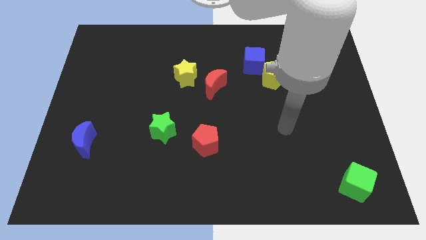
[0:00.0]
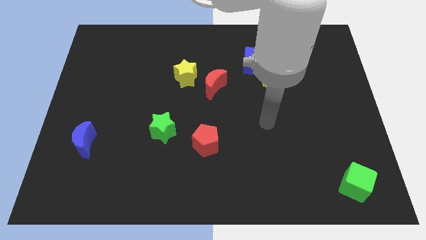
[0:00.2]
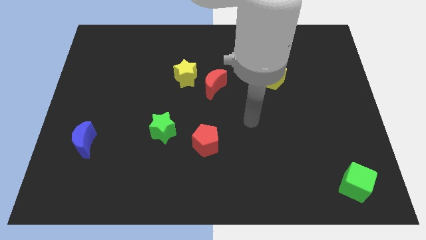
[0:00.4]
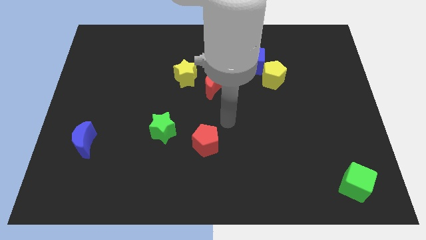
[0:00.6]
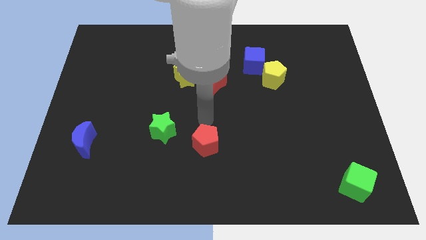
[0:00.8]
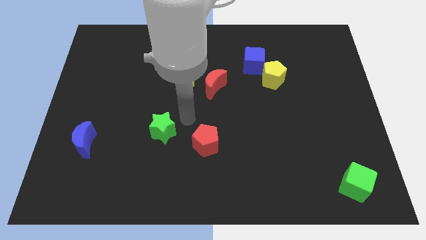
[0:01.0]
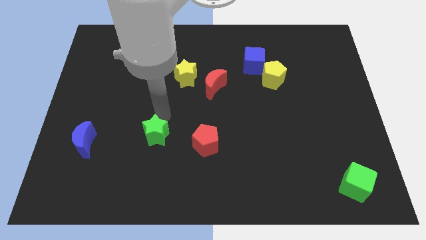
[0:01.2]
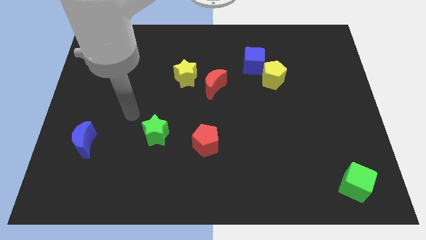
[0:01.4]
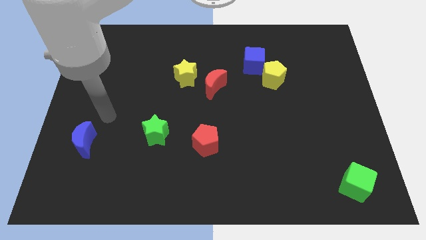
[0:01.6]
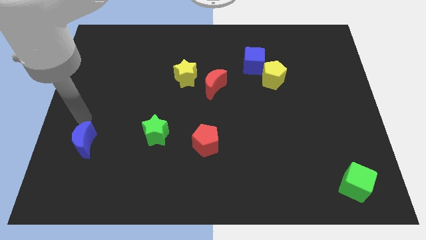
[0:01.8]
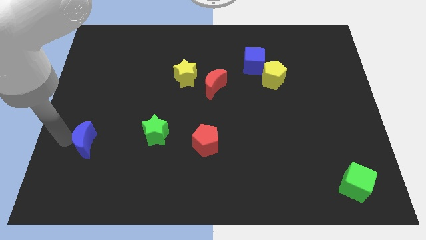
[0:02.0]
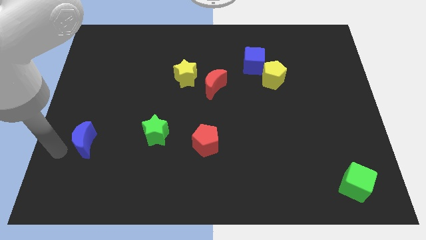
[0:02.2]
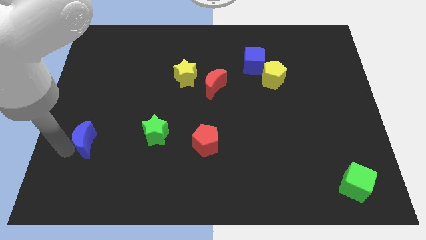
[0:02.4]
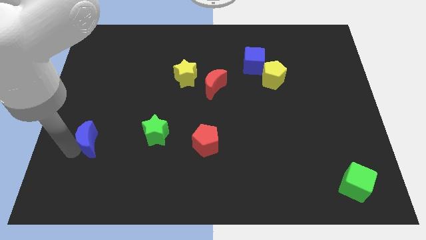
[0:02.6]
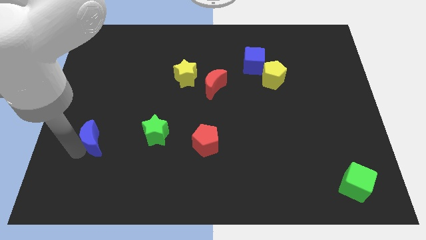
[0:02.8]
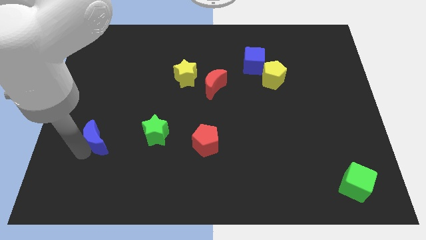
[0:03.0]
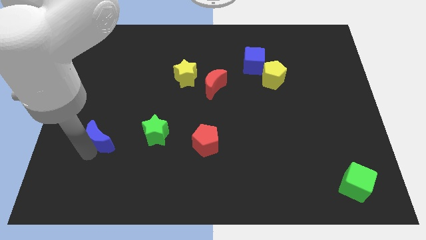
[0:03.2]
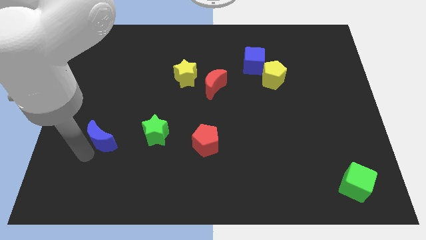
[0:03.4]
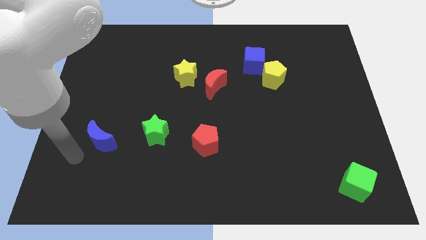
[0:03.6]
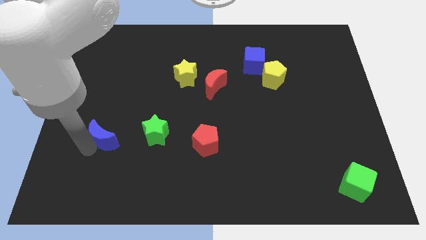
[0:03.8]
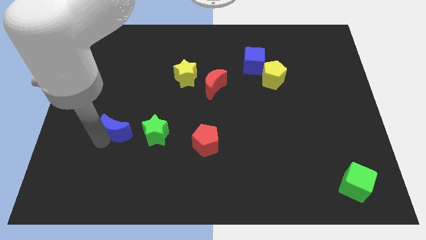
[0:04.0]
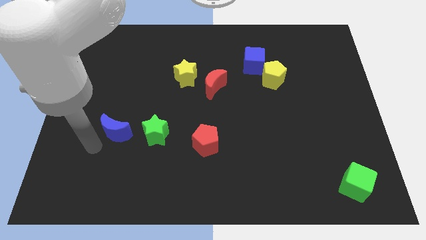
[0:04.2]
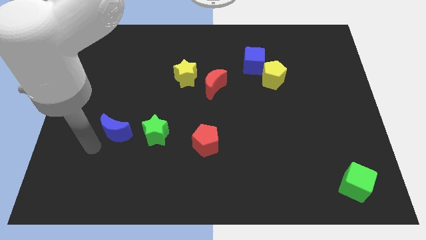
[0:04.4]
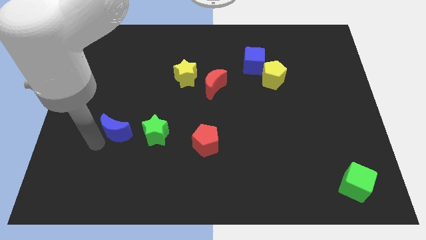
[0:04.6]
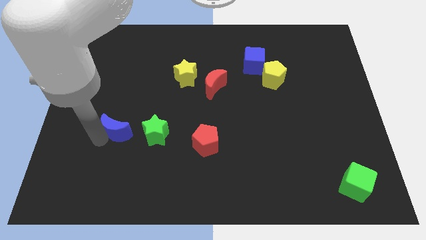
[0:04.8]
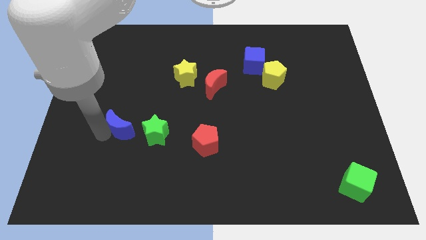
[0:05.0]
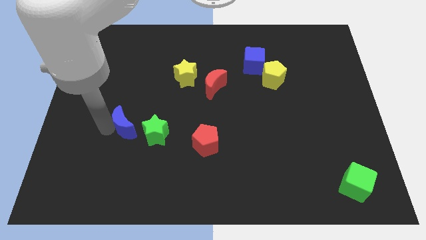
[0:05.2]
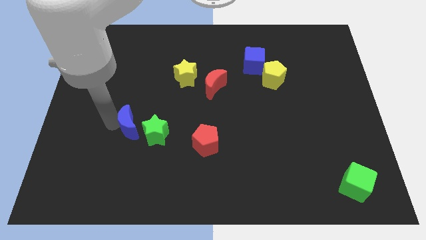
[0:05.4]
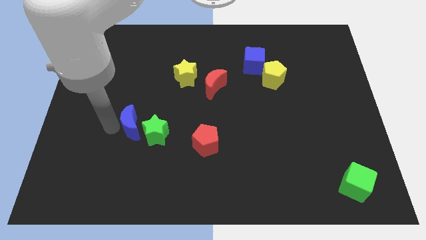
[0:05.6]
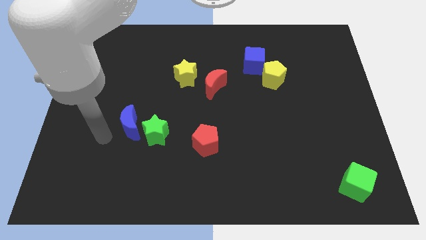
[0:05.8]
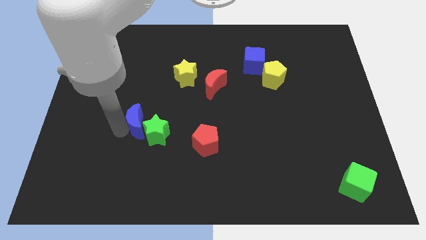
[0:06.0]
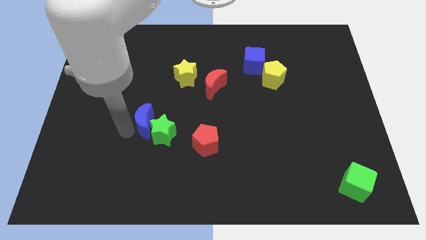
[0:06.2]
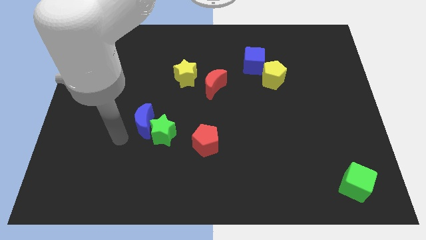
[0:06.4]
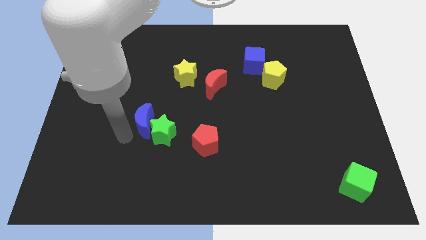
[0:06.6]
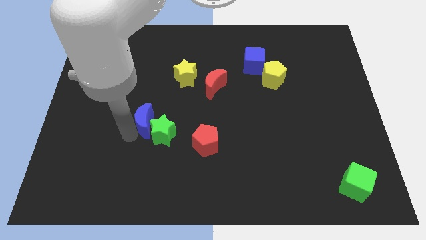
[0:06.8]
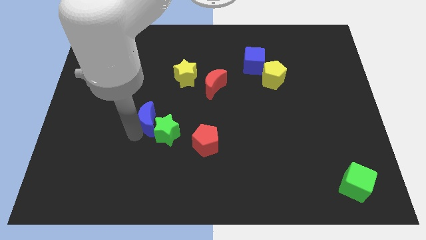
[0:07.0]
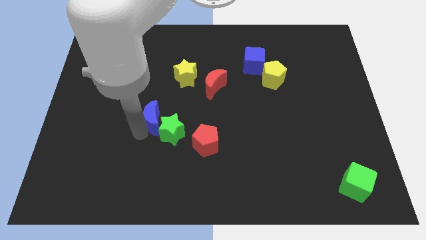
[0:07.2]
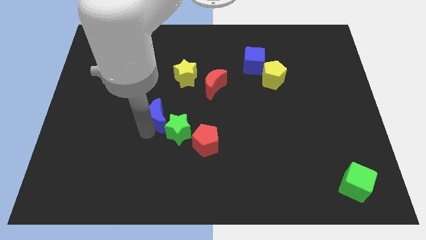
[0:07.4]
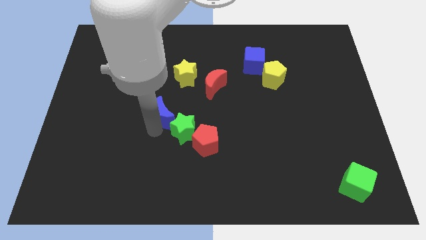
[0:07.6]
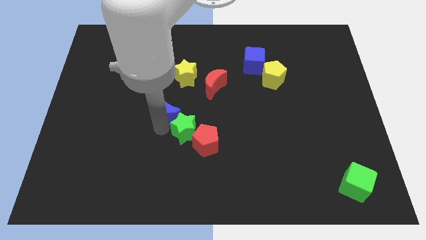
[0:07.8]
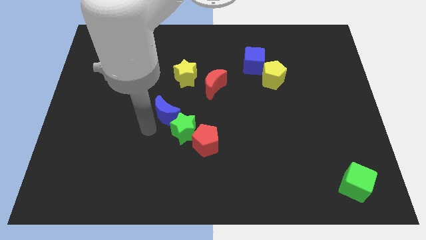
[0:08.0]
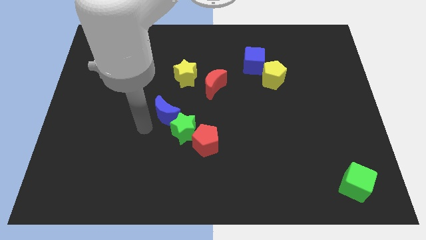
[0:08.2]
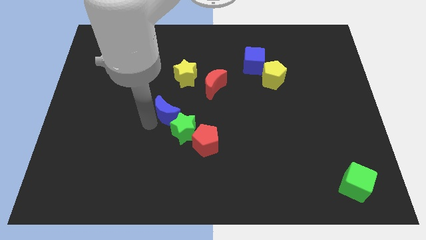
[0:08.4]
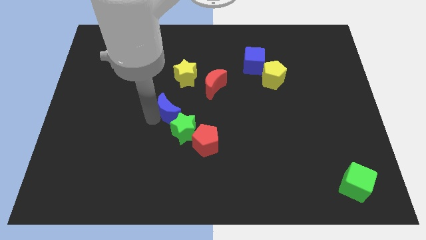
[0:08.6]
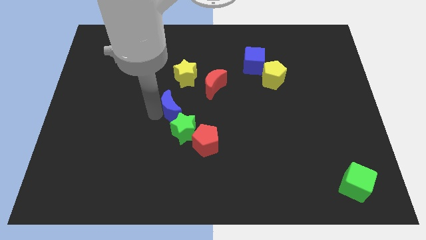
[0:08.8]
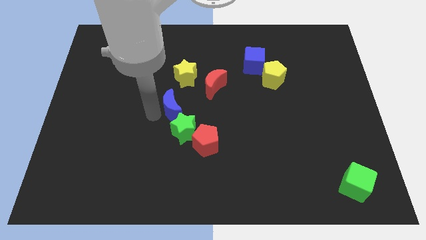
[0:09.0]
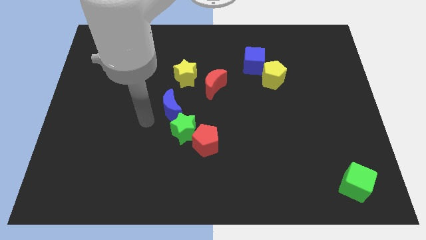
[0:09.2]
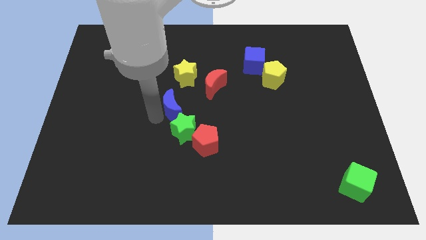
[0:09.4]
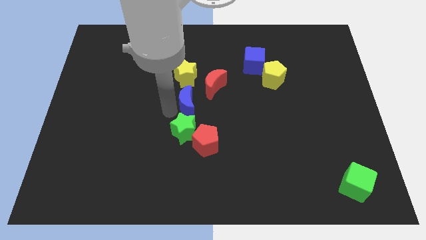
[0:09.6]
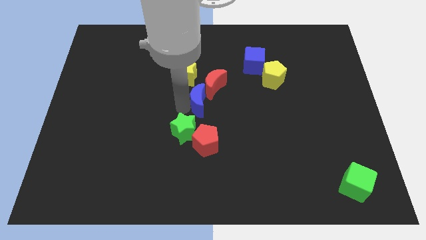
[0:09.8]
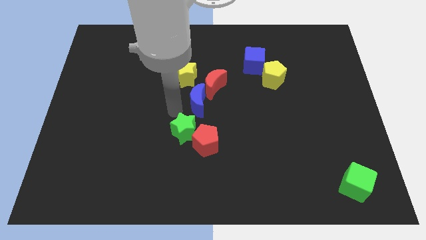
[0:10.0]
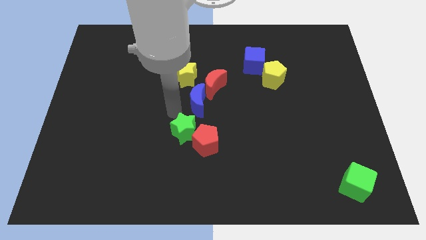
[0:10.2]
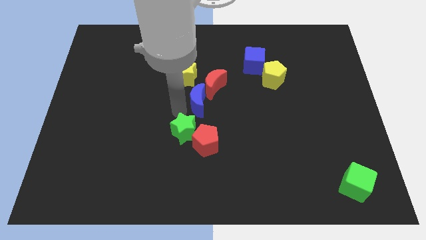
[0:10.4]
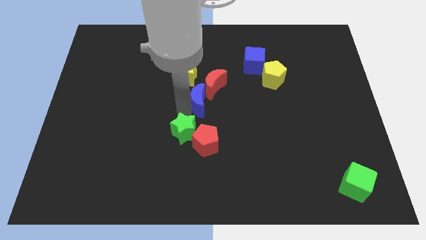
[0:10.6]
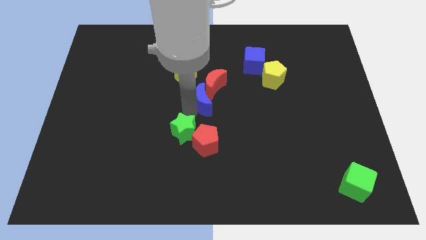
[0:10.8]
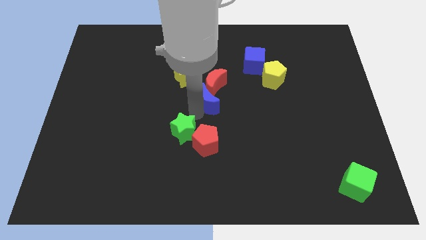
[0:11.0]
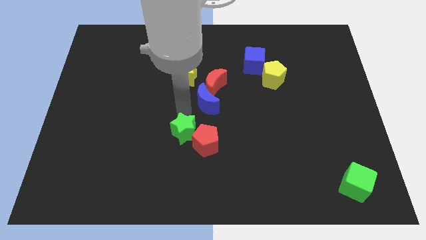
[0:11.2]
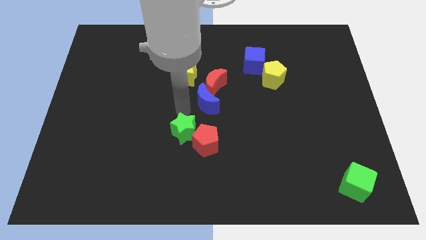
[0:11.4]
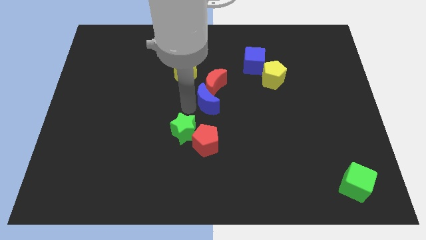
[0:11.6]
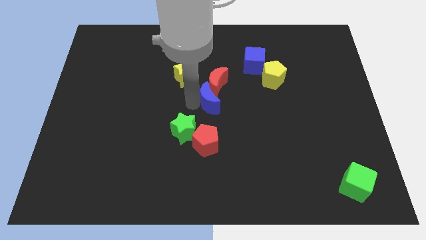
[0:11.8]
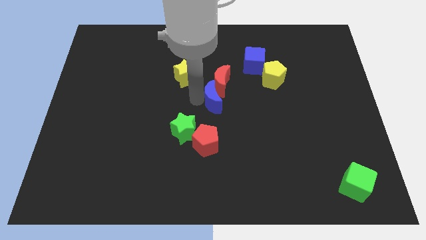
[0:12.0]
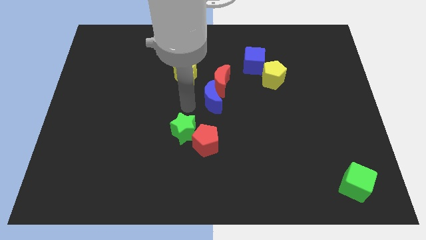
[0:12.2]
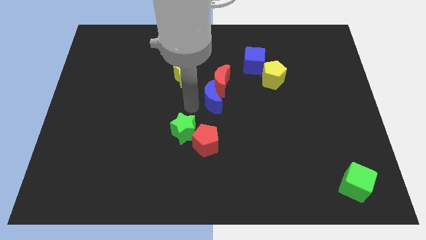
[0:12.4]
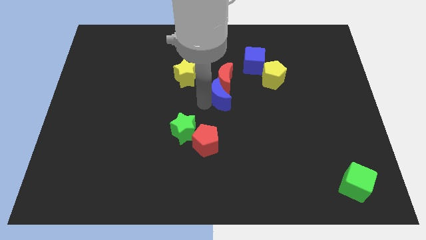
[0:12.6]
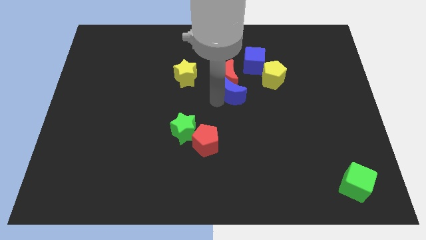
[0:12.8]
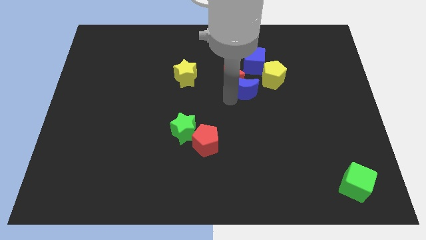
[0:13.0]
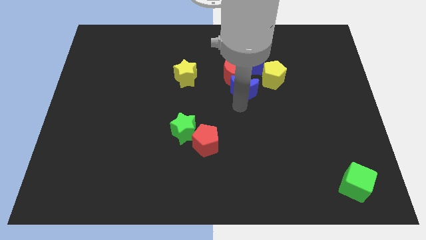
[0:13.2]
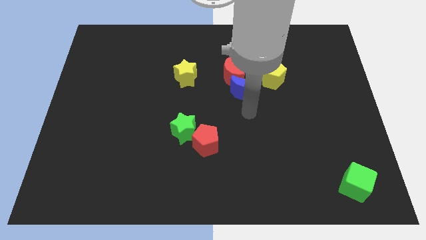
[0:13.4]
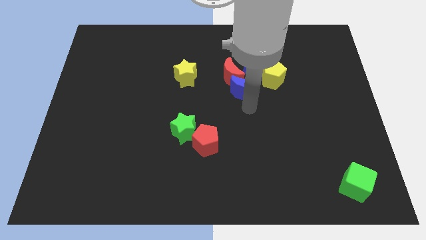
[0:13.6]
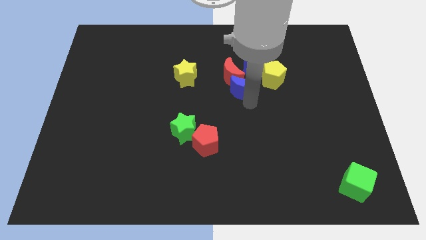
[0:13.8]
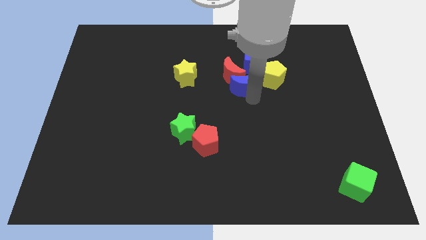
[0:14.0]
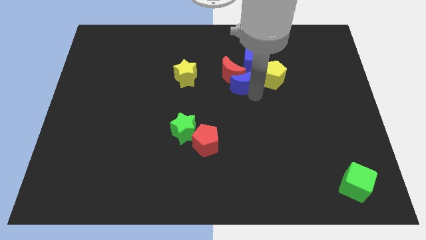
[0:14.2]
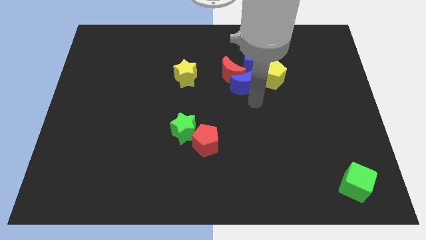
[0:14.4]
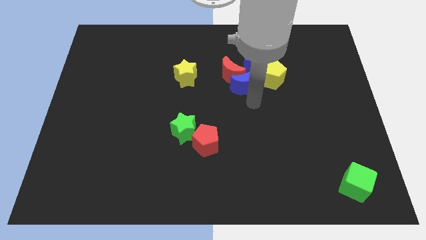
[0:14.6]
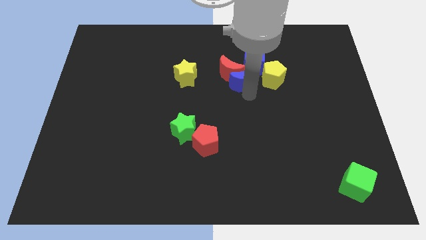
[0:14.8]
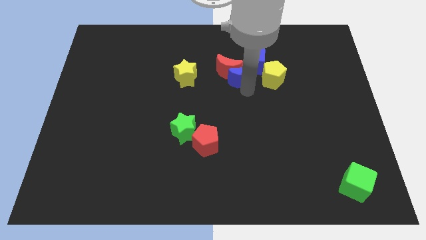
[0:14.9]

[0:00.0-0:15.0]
slide the blue moon to the blue cube
